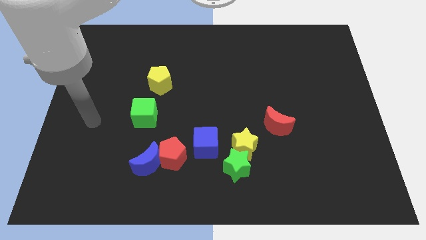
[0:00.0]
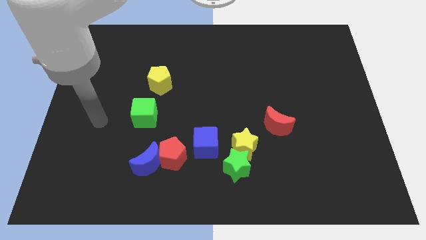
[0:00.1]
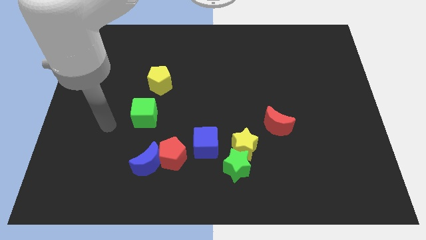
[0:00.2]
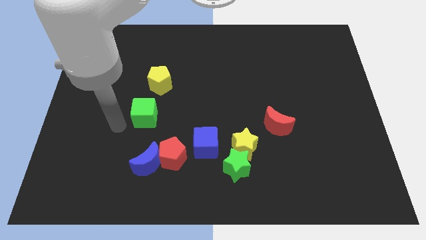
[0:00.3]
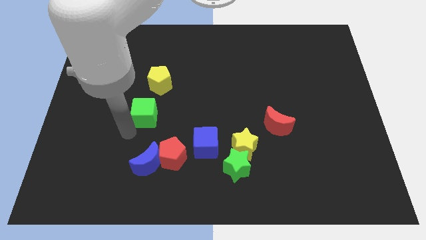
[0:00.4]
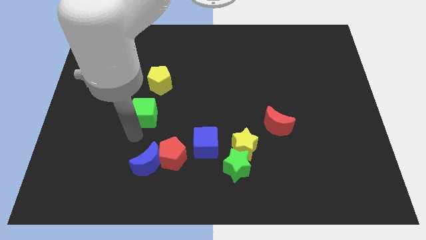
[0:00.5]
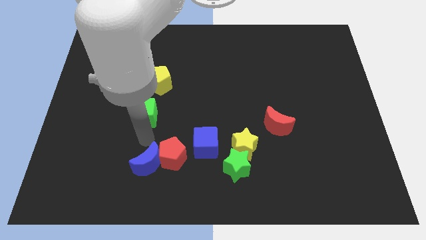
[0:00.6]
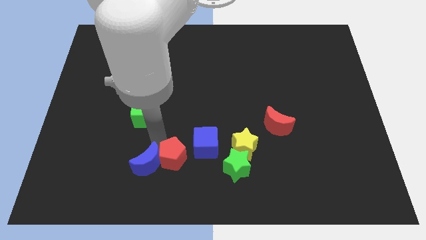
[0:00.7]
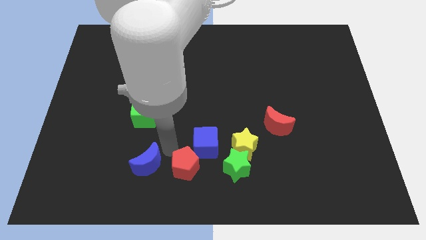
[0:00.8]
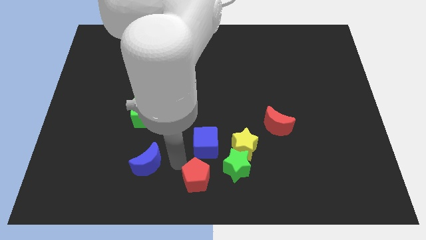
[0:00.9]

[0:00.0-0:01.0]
separate the blue moon from the red pentagon

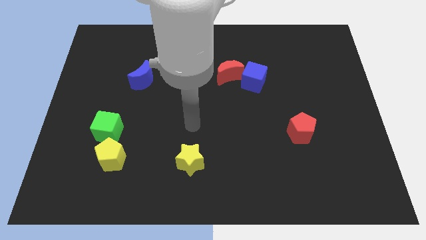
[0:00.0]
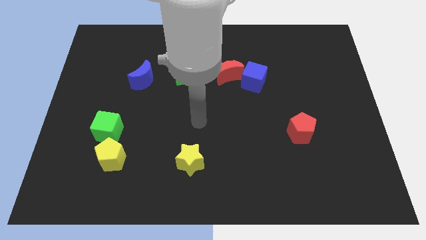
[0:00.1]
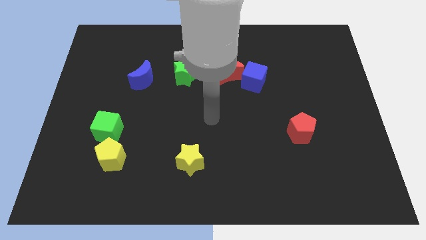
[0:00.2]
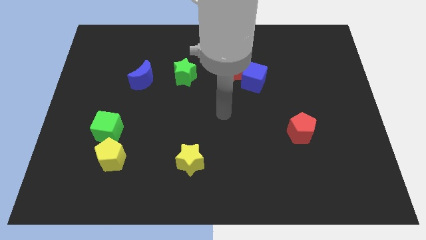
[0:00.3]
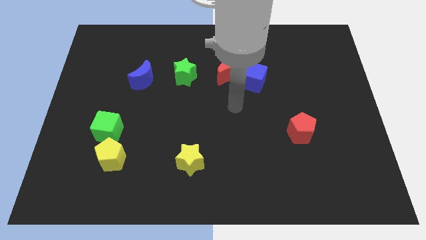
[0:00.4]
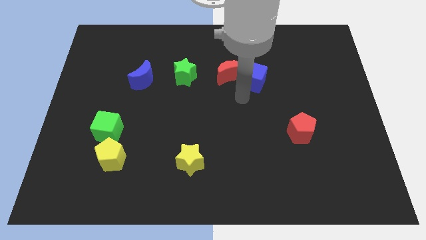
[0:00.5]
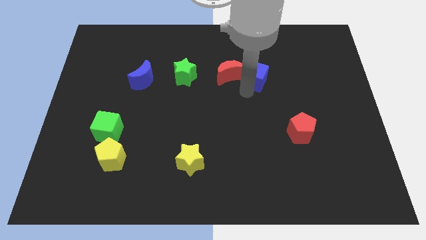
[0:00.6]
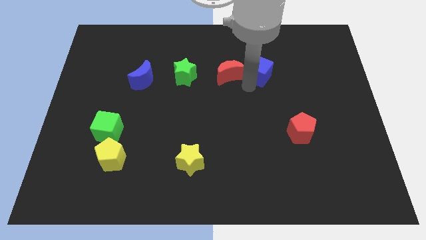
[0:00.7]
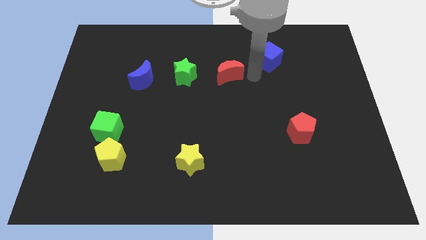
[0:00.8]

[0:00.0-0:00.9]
pull the red moon apart from the blue cube

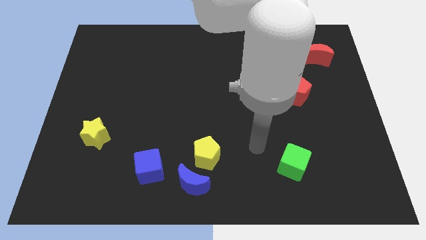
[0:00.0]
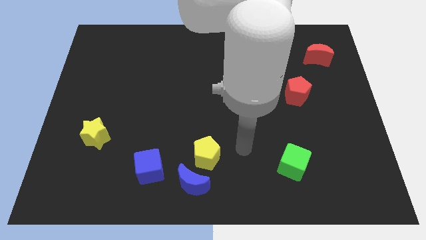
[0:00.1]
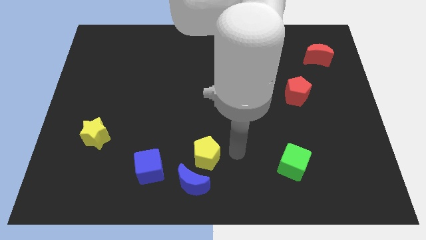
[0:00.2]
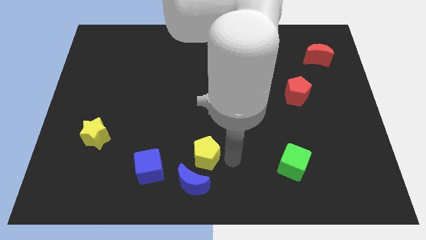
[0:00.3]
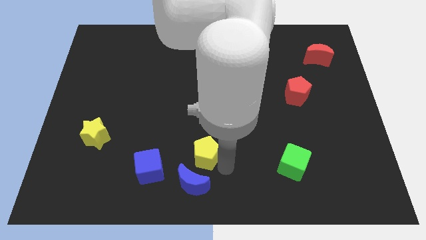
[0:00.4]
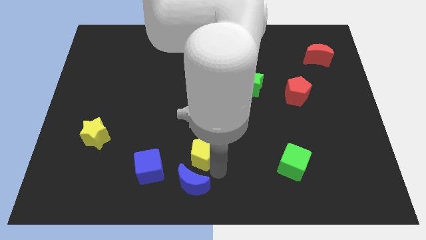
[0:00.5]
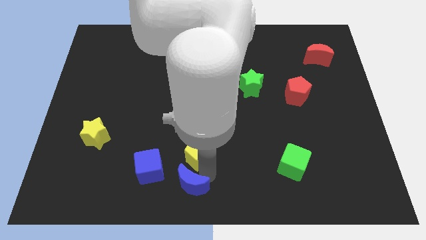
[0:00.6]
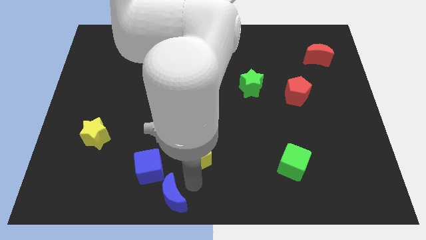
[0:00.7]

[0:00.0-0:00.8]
pull the yellow pentagon apart from the blue moon

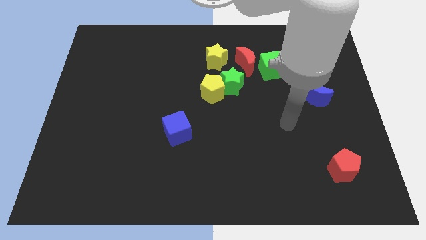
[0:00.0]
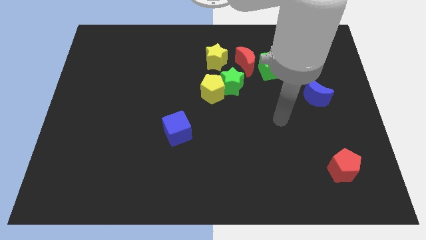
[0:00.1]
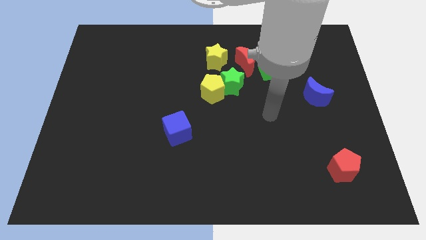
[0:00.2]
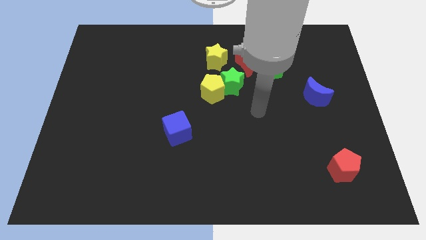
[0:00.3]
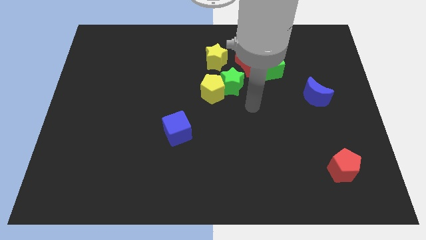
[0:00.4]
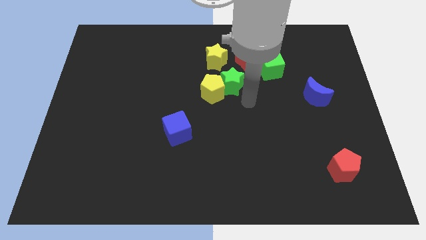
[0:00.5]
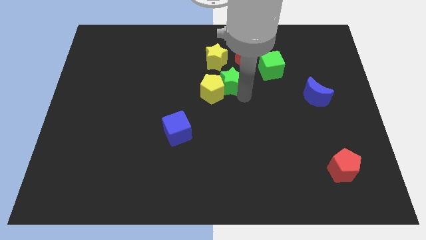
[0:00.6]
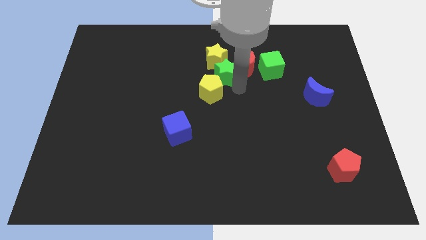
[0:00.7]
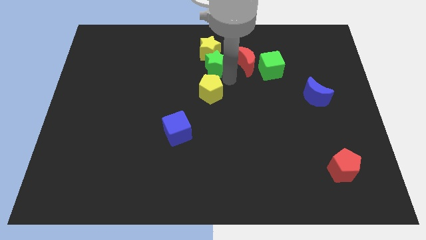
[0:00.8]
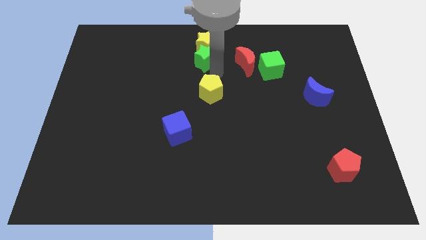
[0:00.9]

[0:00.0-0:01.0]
separate the yellow pentagon from the green star

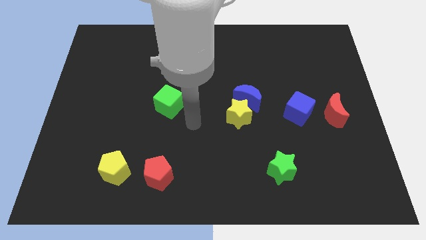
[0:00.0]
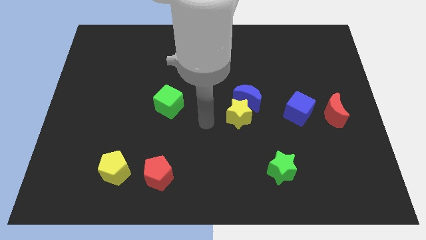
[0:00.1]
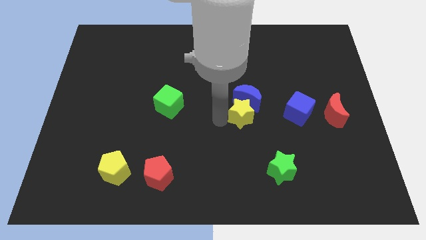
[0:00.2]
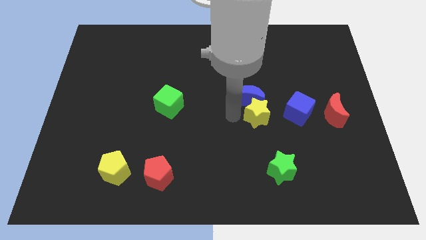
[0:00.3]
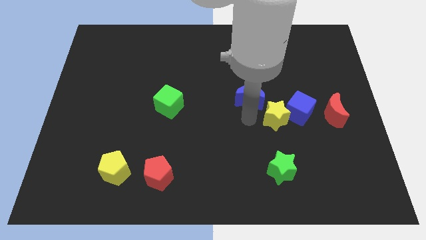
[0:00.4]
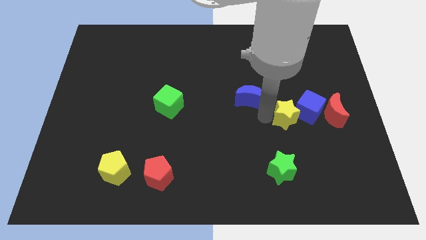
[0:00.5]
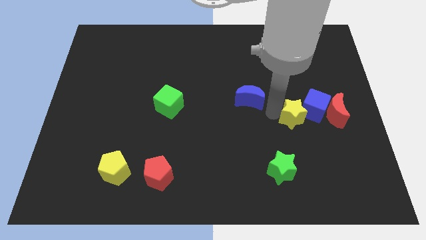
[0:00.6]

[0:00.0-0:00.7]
move the blue moon away from the yellow star

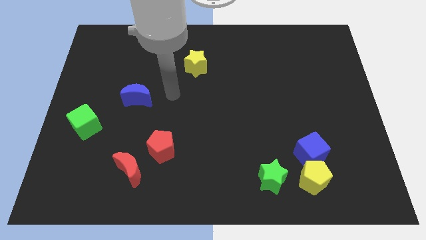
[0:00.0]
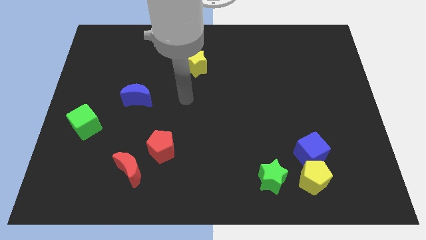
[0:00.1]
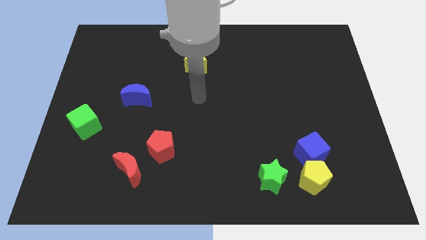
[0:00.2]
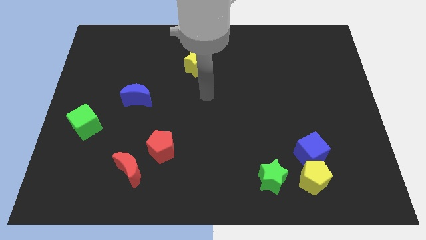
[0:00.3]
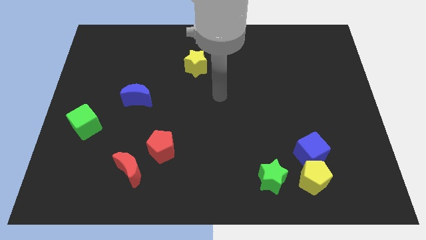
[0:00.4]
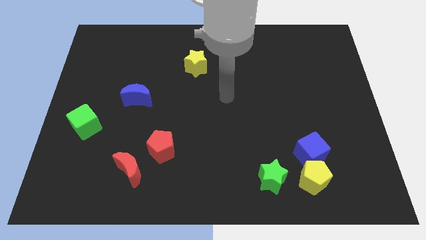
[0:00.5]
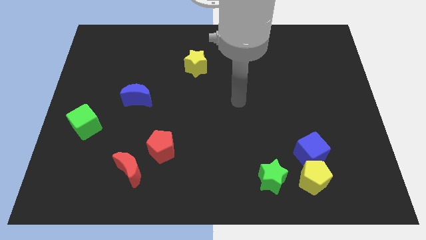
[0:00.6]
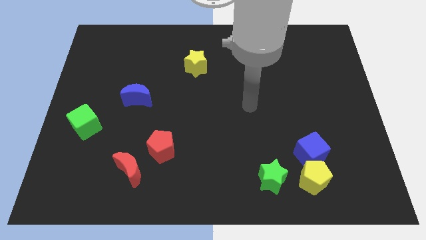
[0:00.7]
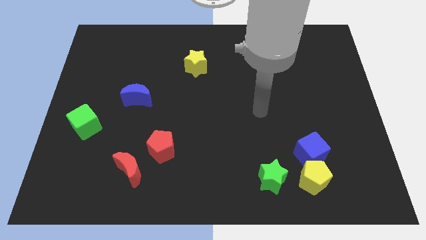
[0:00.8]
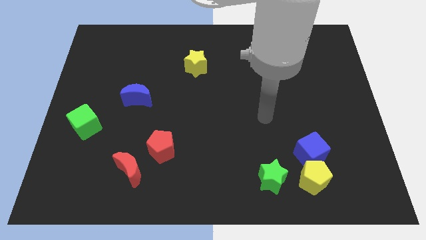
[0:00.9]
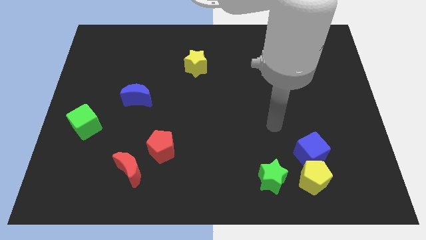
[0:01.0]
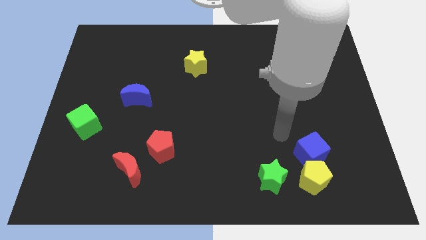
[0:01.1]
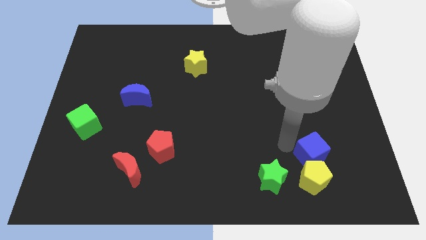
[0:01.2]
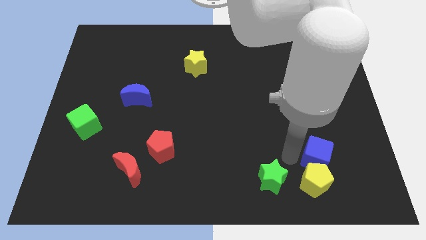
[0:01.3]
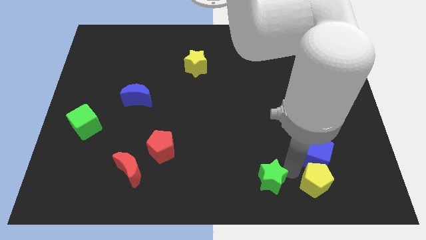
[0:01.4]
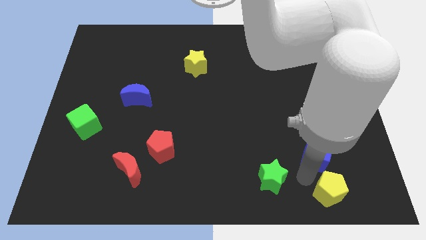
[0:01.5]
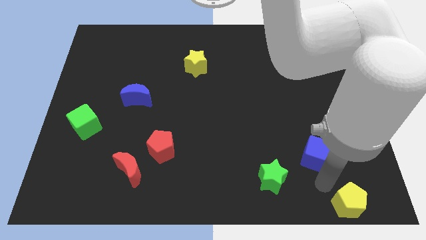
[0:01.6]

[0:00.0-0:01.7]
separate the blue cube from the yellow pentagon

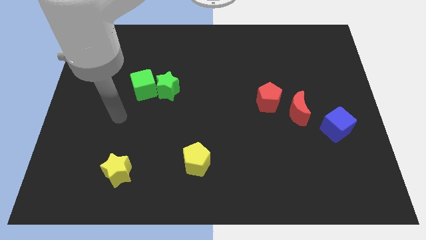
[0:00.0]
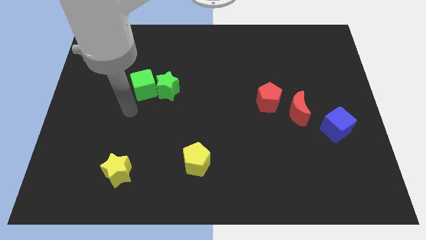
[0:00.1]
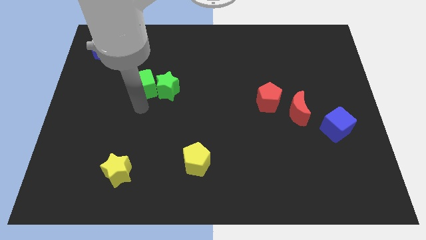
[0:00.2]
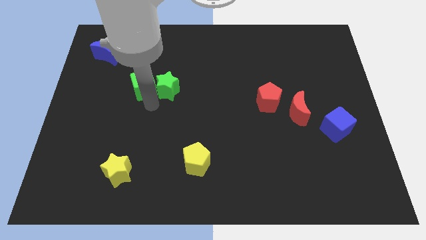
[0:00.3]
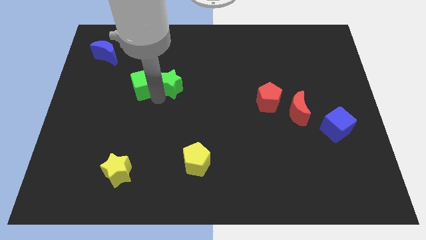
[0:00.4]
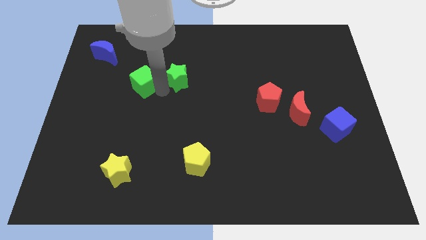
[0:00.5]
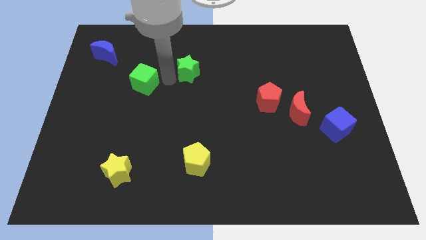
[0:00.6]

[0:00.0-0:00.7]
pull the green cube apart from the green star

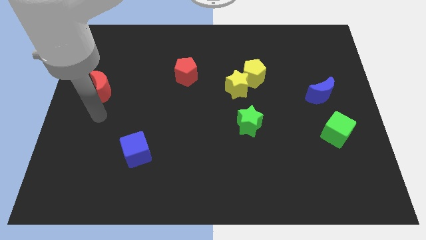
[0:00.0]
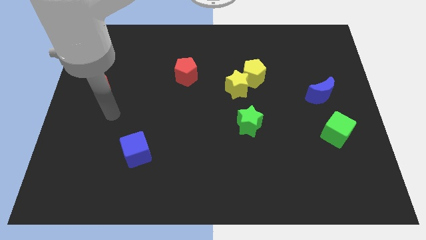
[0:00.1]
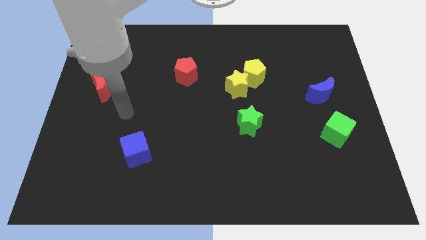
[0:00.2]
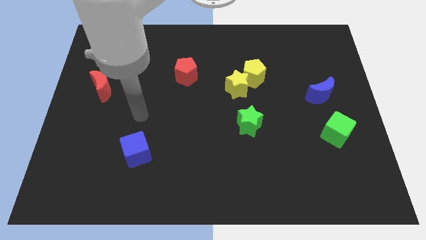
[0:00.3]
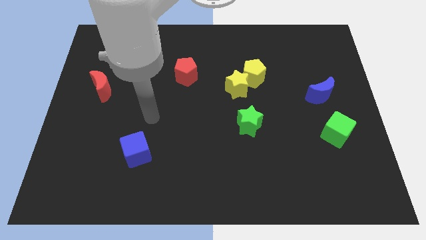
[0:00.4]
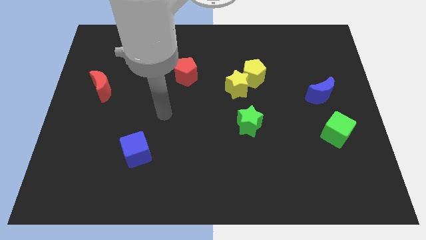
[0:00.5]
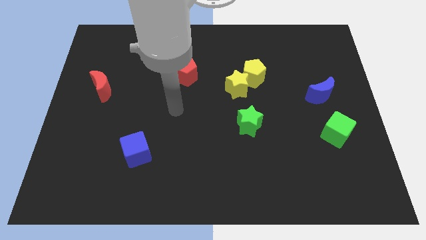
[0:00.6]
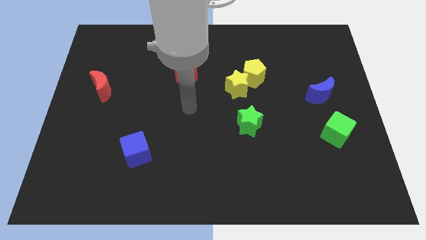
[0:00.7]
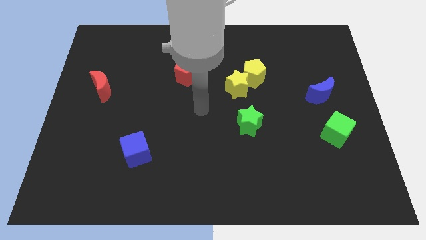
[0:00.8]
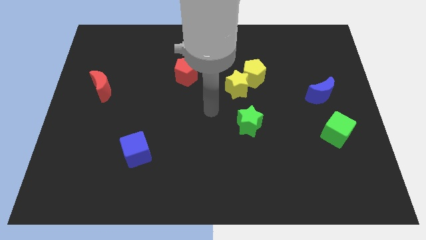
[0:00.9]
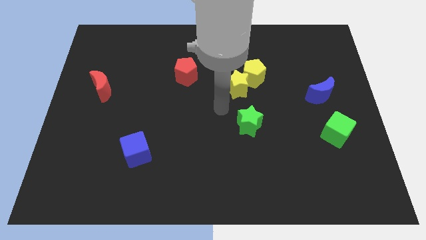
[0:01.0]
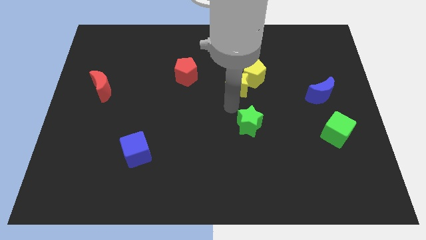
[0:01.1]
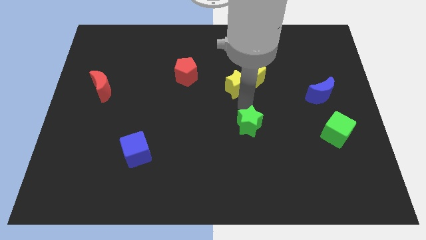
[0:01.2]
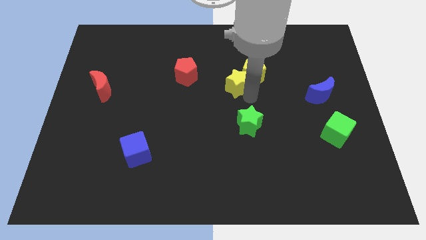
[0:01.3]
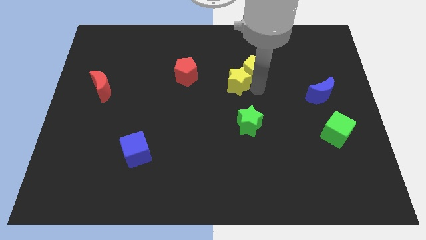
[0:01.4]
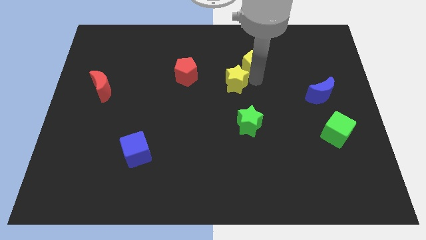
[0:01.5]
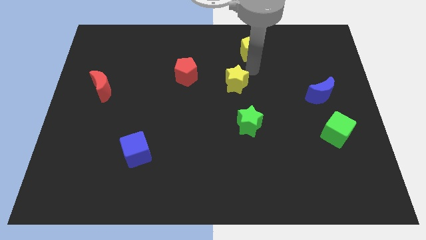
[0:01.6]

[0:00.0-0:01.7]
move the yellow star away from the yellow pentagon

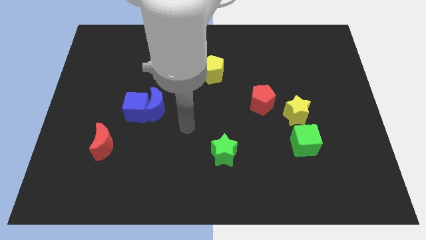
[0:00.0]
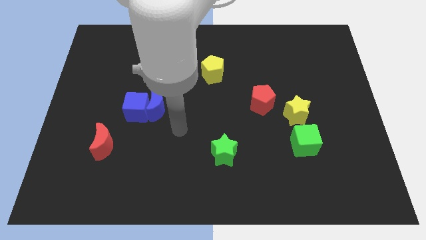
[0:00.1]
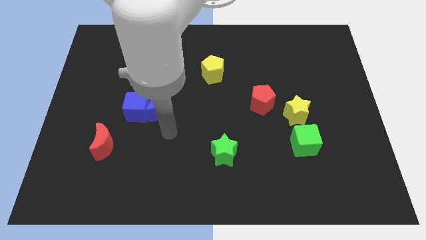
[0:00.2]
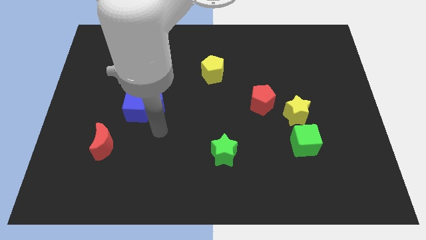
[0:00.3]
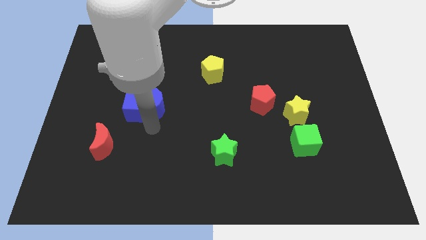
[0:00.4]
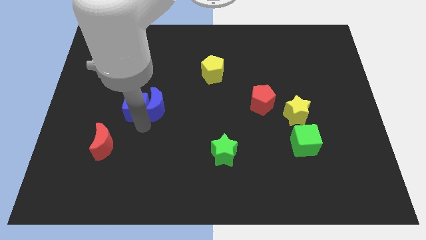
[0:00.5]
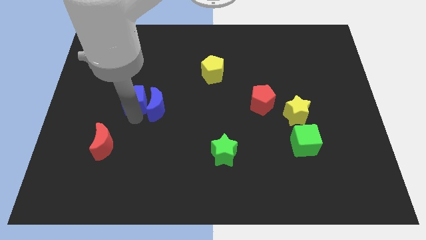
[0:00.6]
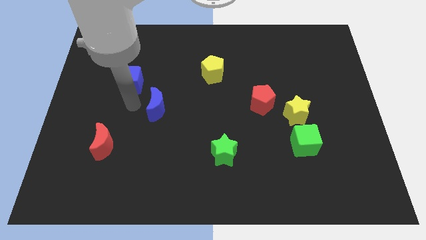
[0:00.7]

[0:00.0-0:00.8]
pull the blue moon apart from the blue cube
